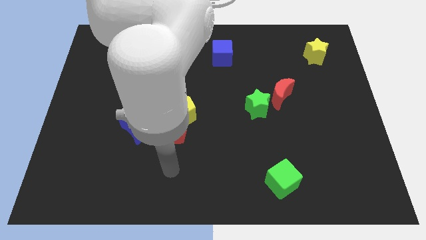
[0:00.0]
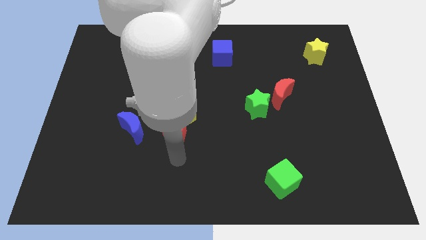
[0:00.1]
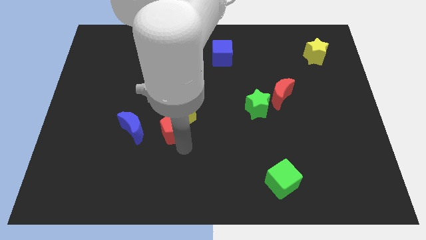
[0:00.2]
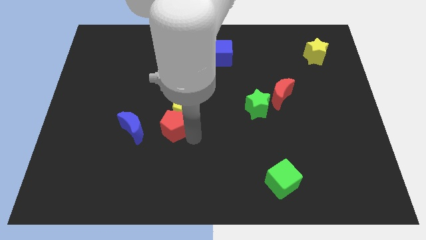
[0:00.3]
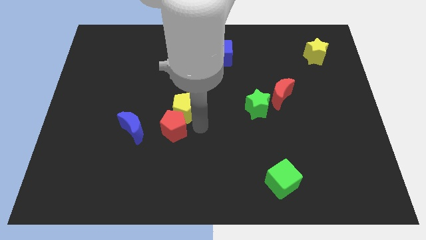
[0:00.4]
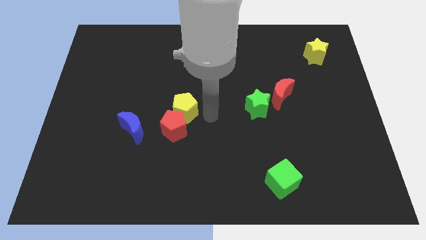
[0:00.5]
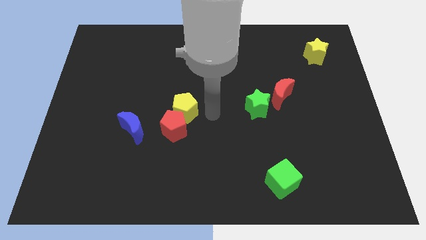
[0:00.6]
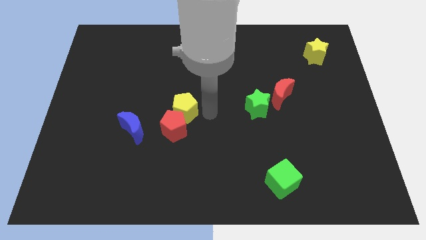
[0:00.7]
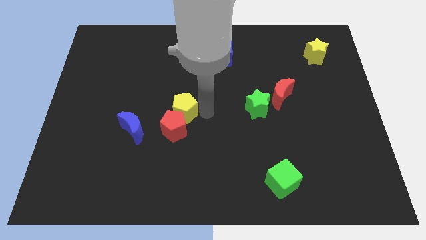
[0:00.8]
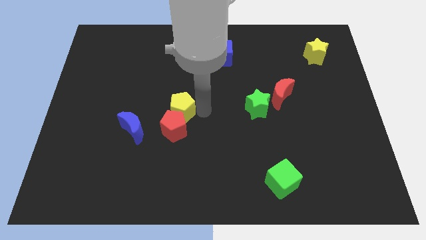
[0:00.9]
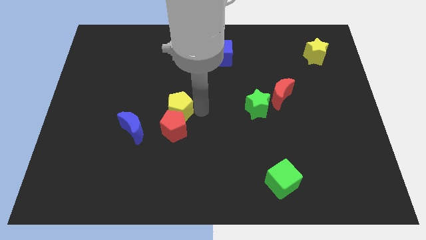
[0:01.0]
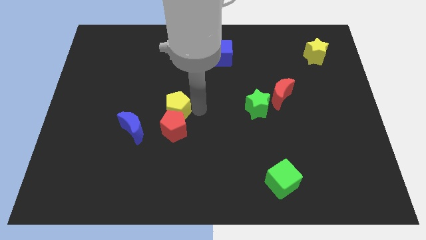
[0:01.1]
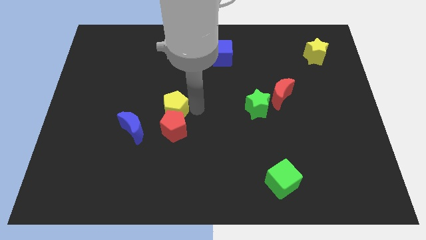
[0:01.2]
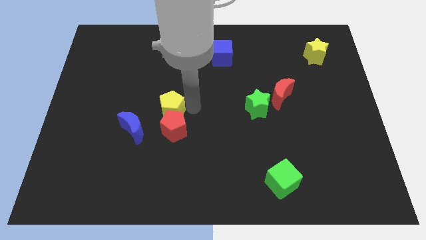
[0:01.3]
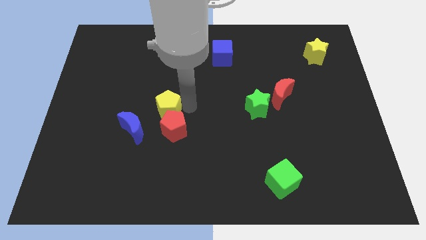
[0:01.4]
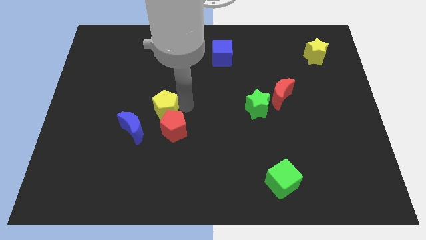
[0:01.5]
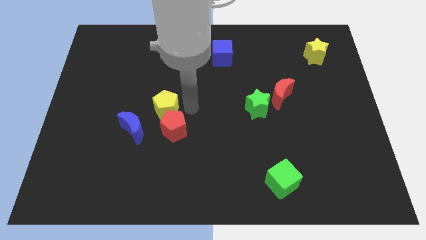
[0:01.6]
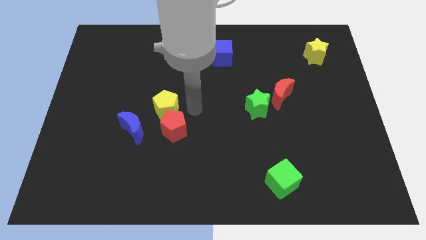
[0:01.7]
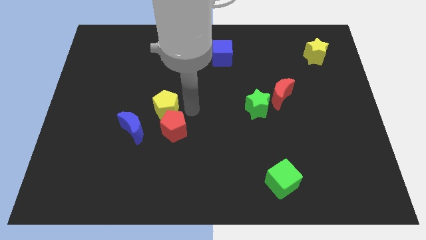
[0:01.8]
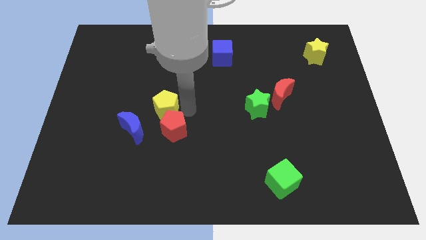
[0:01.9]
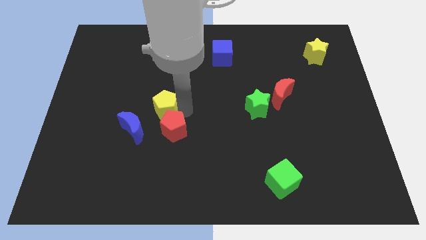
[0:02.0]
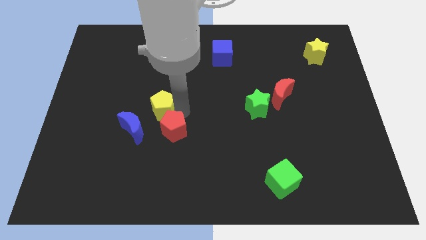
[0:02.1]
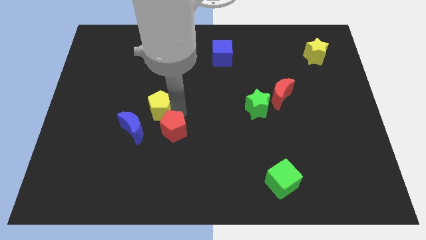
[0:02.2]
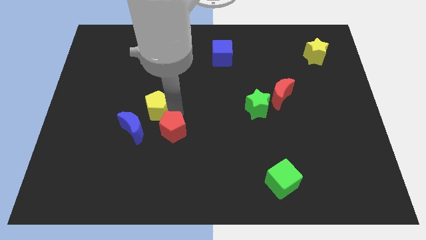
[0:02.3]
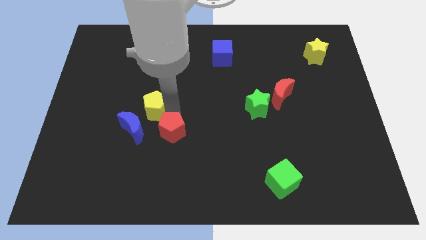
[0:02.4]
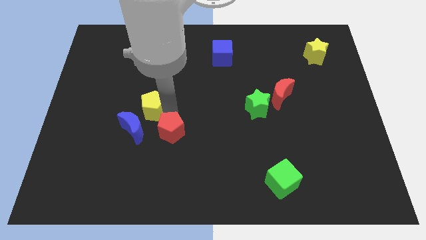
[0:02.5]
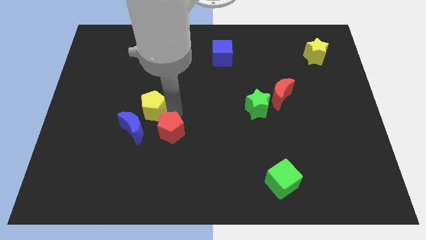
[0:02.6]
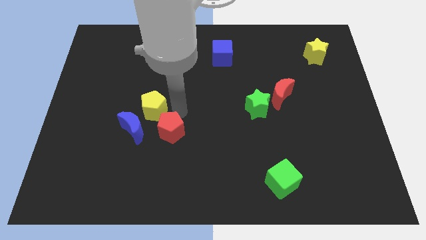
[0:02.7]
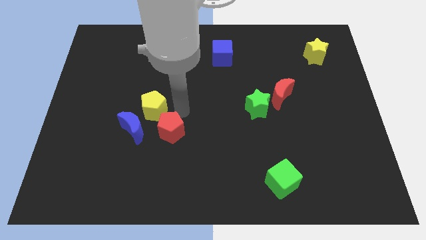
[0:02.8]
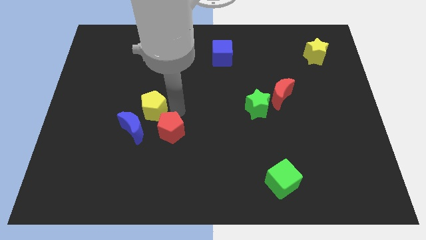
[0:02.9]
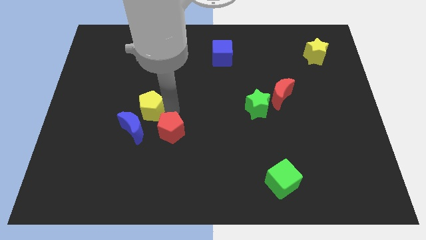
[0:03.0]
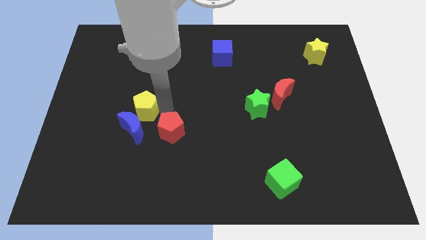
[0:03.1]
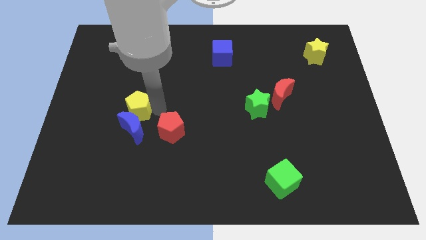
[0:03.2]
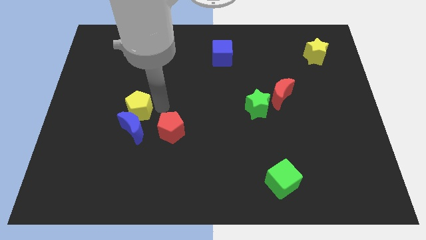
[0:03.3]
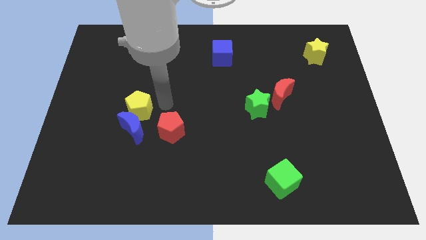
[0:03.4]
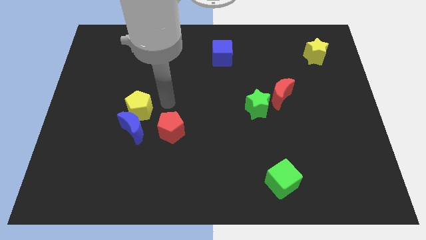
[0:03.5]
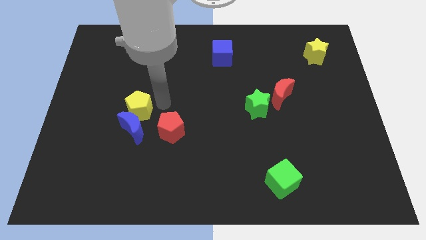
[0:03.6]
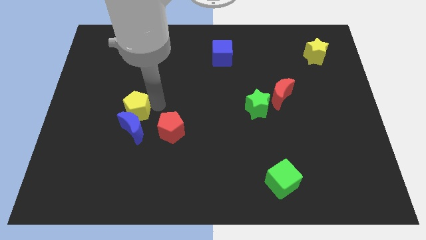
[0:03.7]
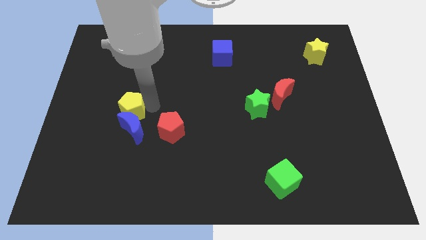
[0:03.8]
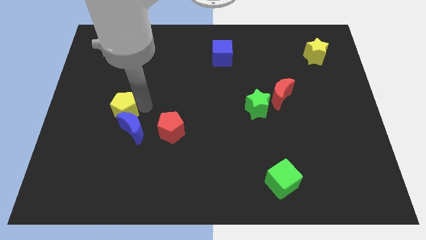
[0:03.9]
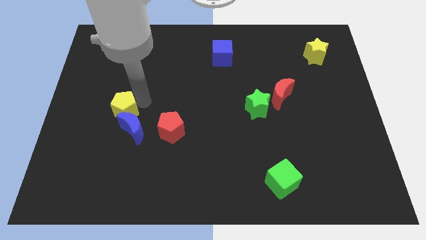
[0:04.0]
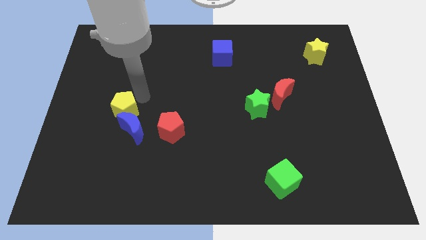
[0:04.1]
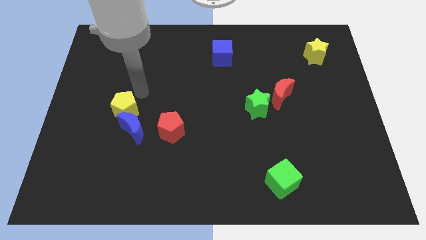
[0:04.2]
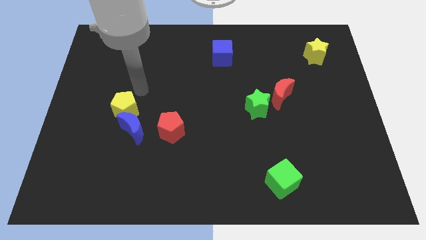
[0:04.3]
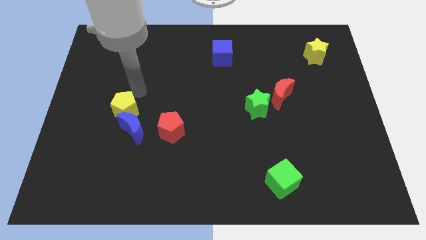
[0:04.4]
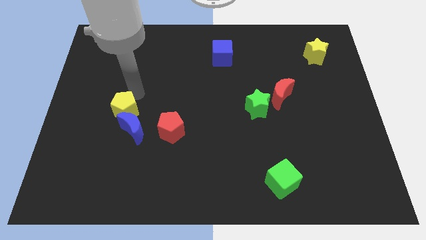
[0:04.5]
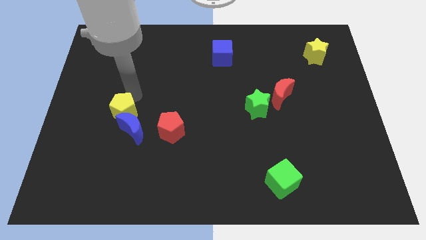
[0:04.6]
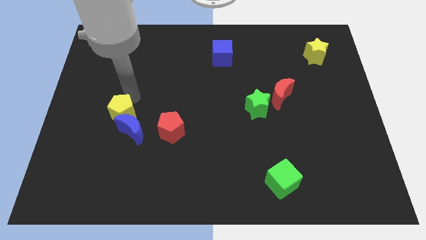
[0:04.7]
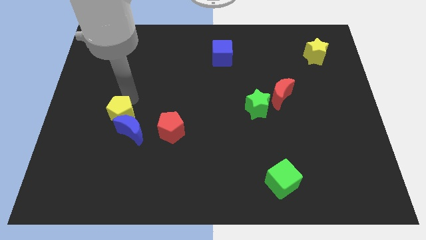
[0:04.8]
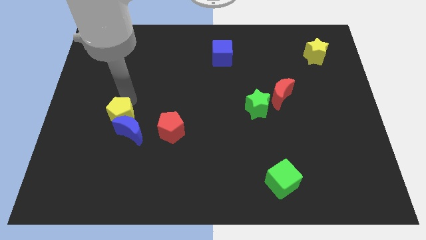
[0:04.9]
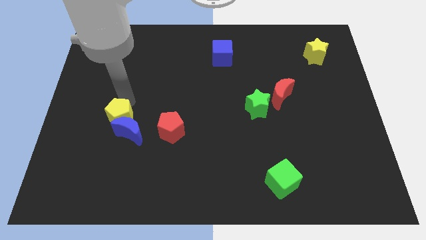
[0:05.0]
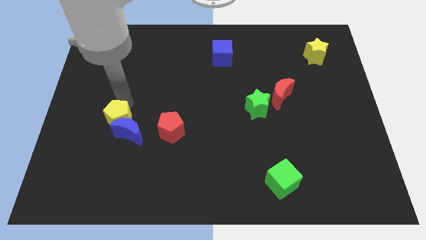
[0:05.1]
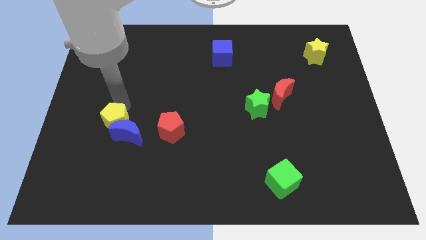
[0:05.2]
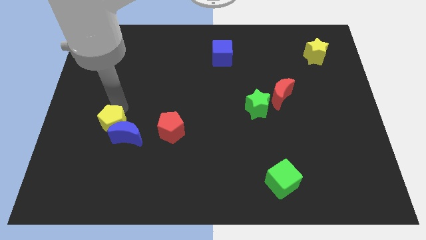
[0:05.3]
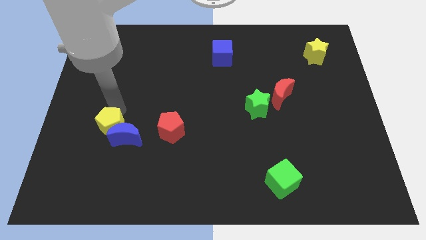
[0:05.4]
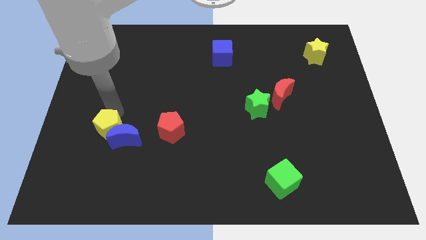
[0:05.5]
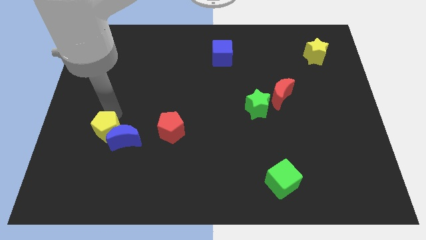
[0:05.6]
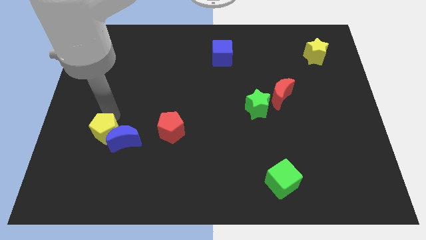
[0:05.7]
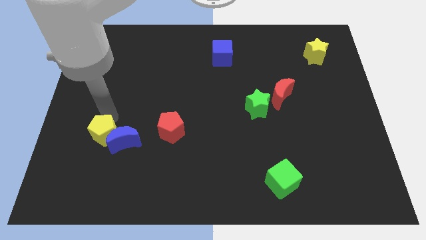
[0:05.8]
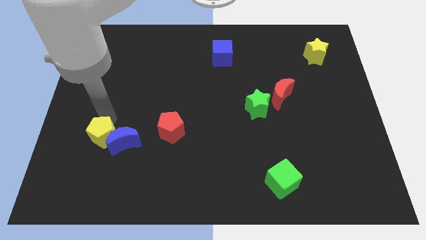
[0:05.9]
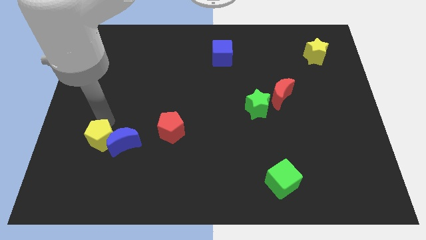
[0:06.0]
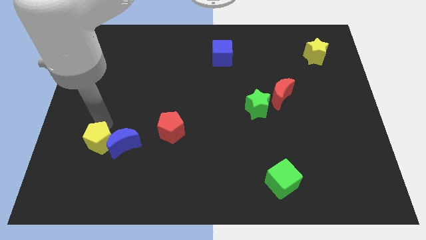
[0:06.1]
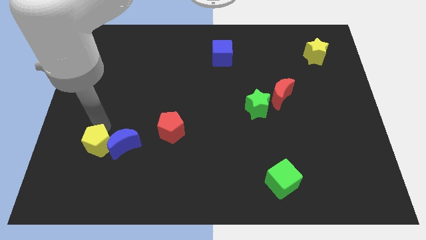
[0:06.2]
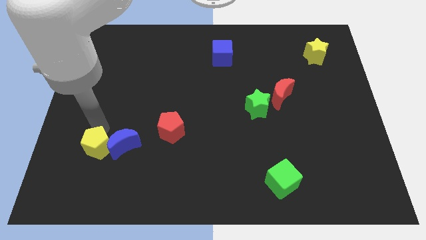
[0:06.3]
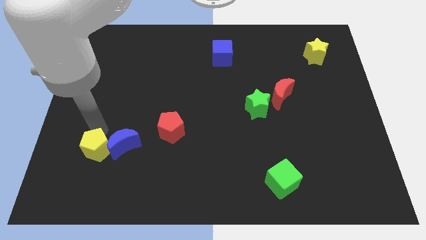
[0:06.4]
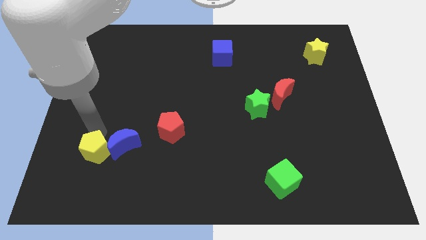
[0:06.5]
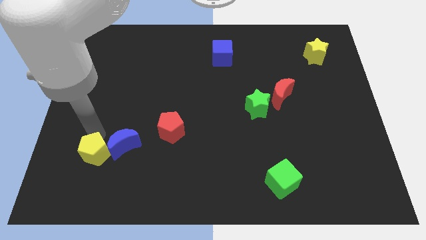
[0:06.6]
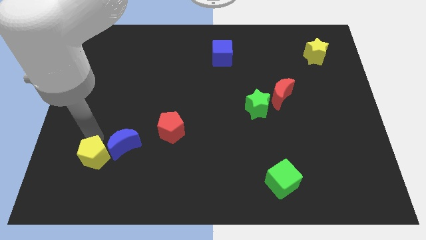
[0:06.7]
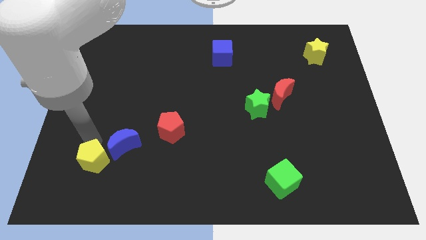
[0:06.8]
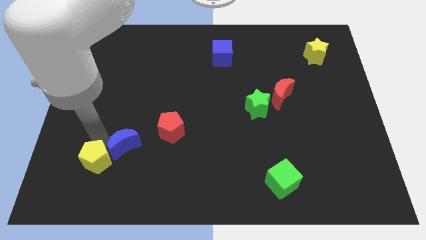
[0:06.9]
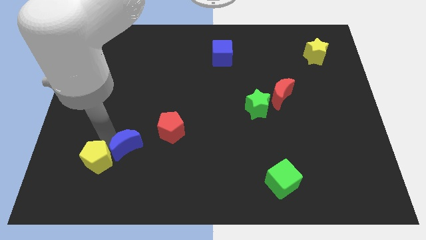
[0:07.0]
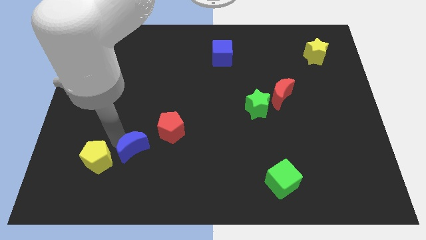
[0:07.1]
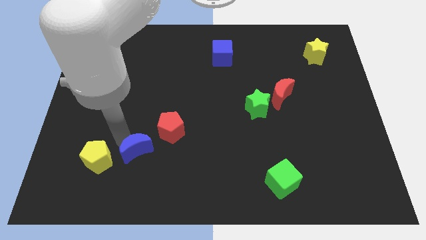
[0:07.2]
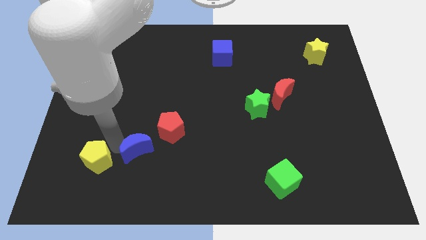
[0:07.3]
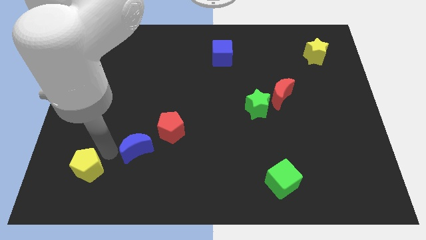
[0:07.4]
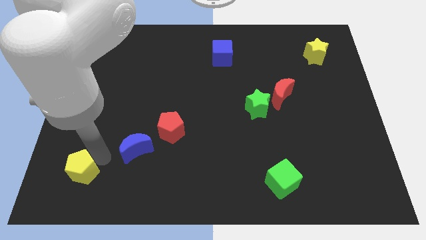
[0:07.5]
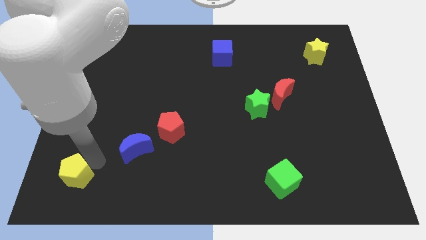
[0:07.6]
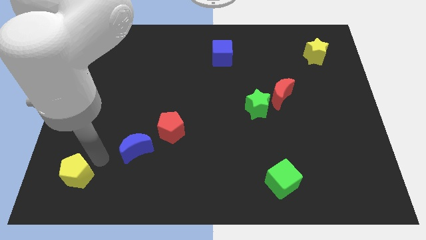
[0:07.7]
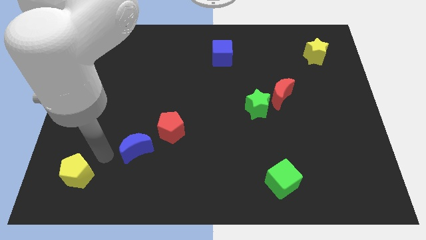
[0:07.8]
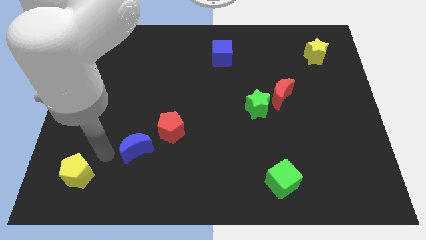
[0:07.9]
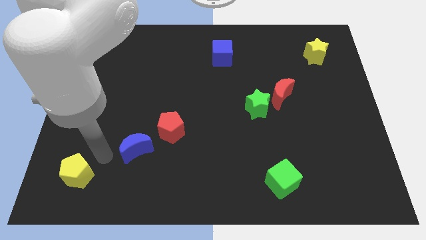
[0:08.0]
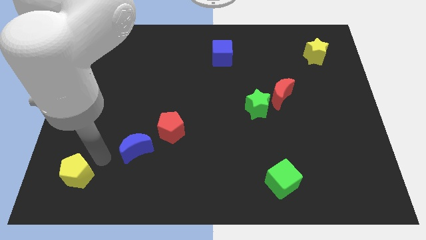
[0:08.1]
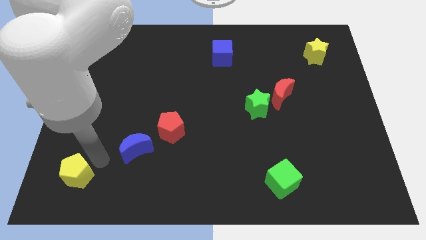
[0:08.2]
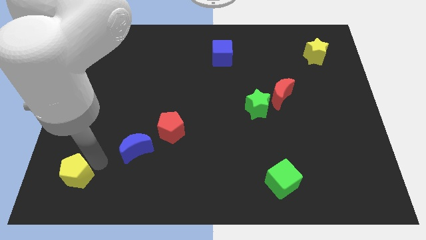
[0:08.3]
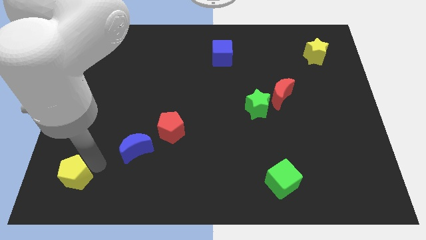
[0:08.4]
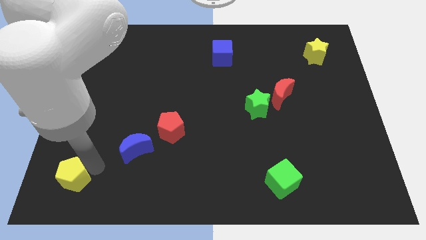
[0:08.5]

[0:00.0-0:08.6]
put the yellow pentagon to the bottom left
